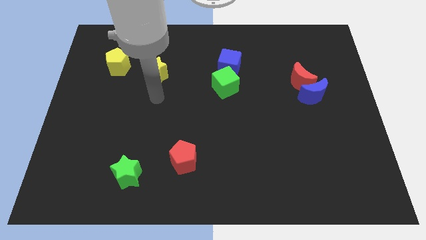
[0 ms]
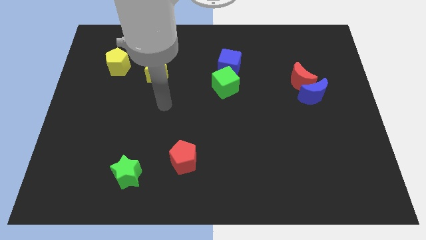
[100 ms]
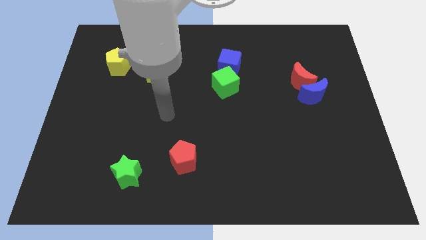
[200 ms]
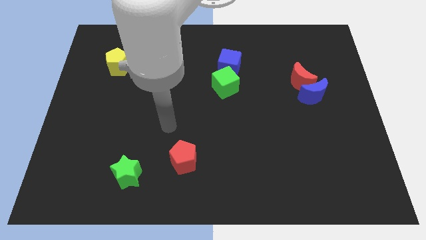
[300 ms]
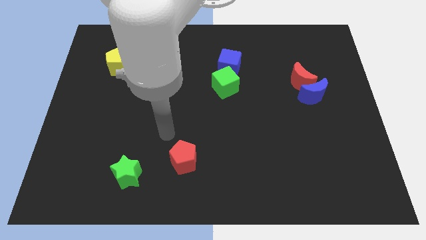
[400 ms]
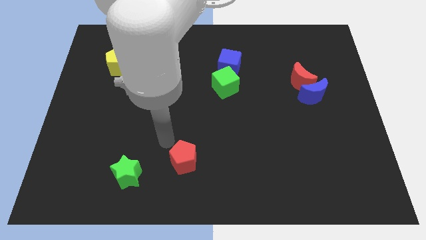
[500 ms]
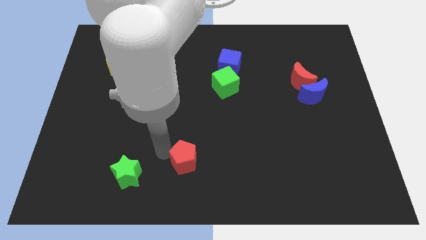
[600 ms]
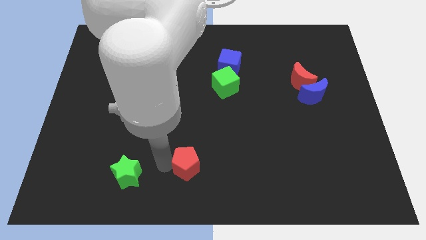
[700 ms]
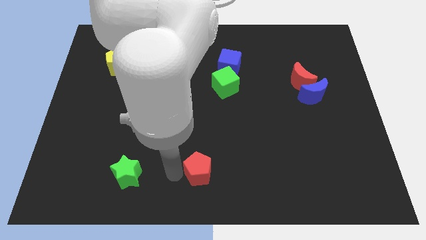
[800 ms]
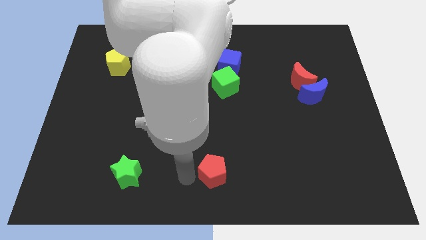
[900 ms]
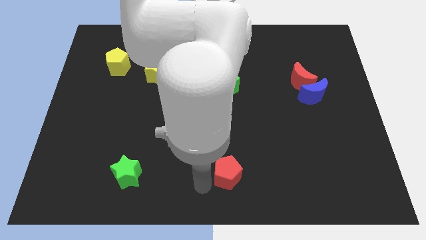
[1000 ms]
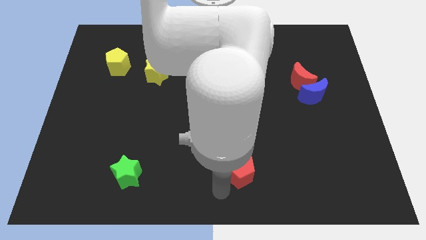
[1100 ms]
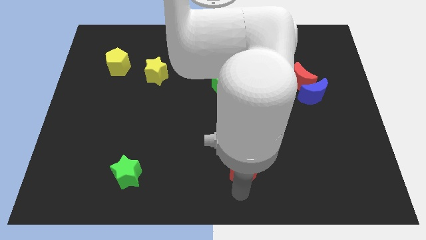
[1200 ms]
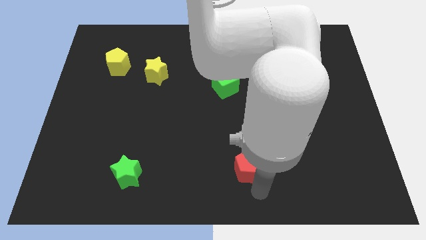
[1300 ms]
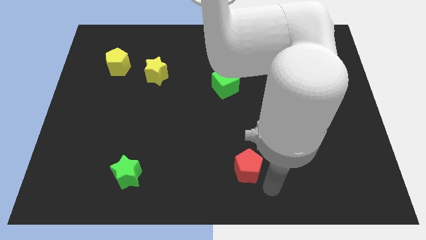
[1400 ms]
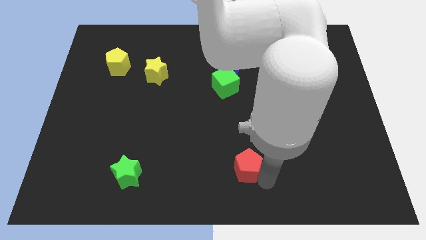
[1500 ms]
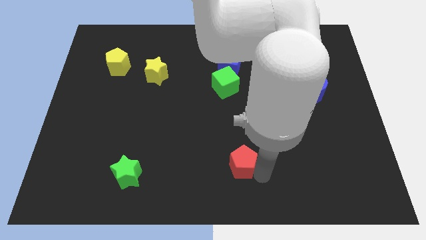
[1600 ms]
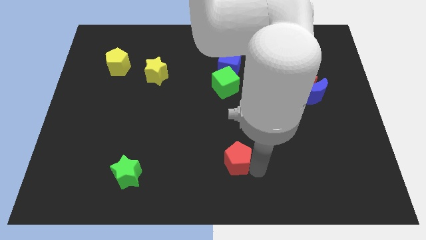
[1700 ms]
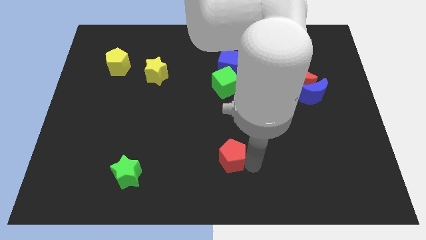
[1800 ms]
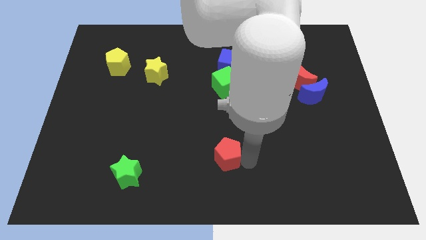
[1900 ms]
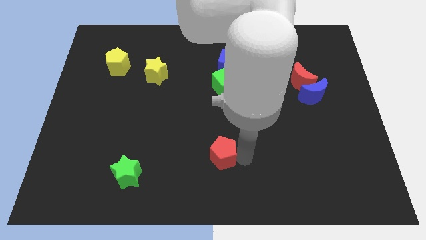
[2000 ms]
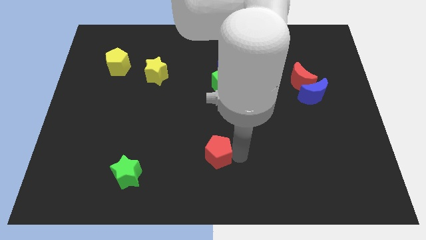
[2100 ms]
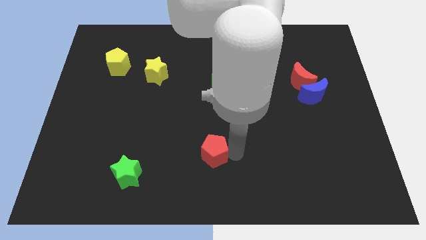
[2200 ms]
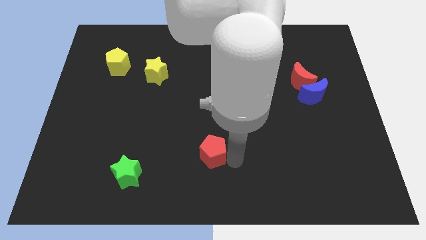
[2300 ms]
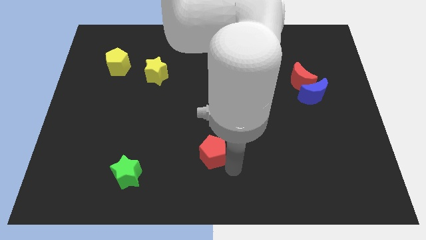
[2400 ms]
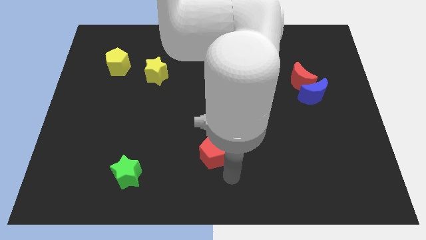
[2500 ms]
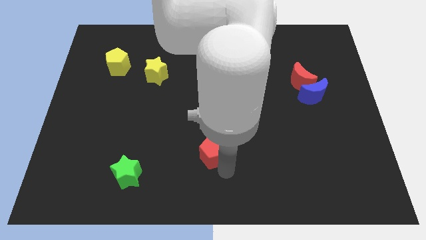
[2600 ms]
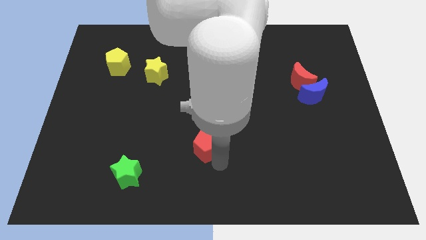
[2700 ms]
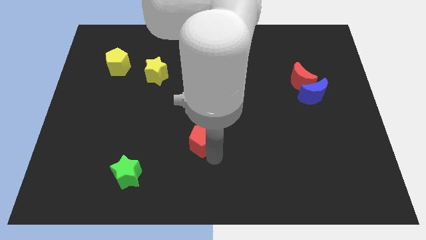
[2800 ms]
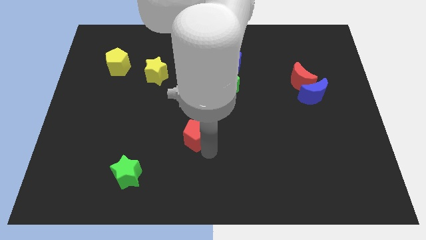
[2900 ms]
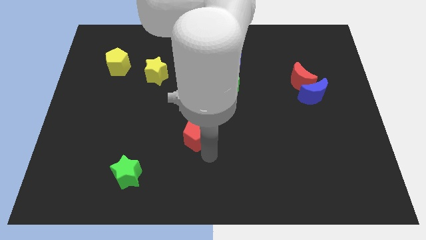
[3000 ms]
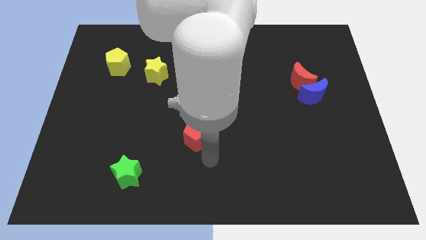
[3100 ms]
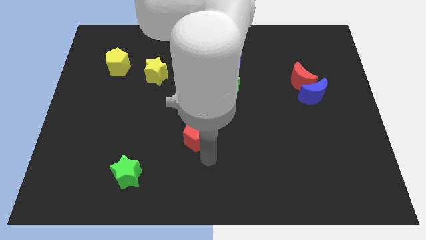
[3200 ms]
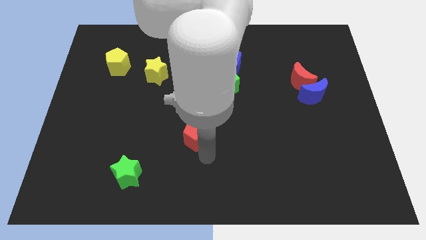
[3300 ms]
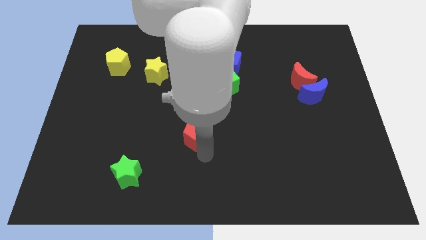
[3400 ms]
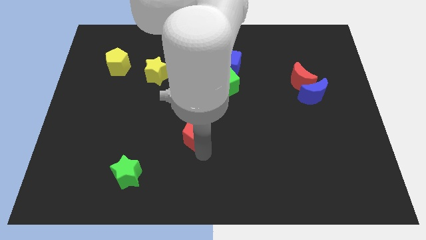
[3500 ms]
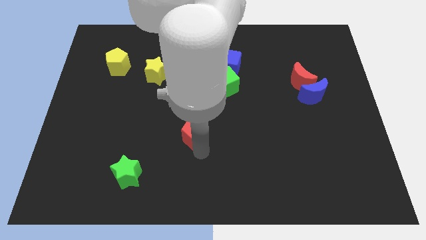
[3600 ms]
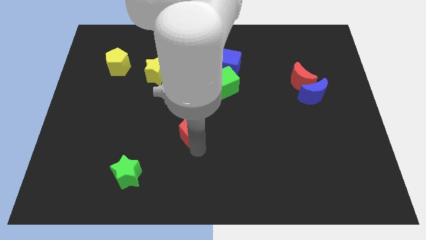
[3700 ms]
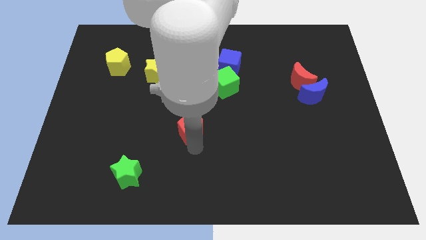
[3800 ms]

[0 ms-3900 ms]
slide the red pentagon a little bit up

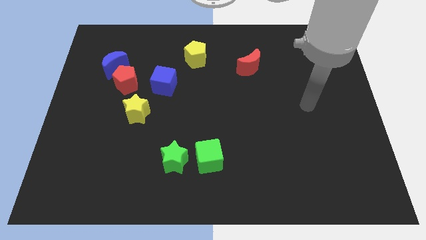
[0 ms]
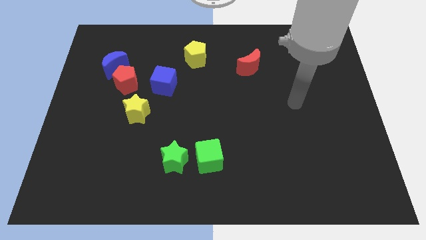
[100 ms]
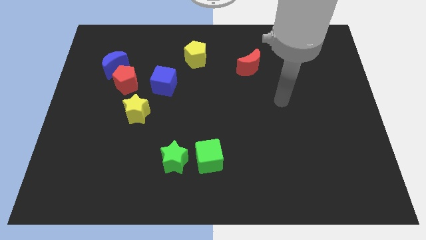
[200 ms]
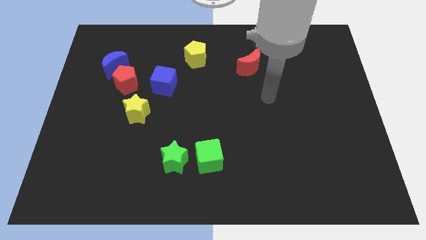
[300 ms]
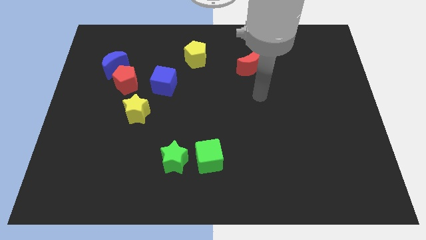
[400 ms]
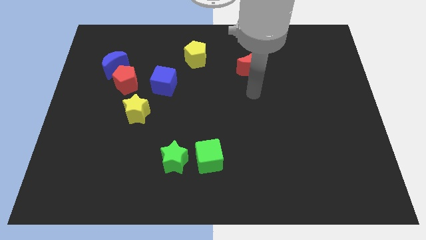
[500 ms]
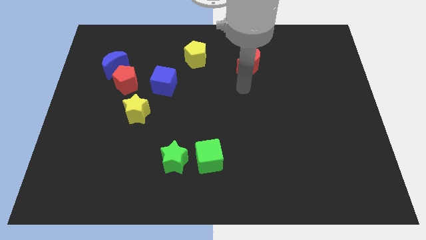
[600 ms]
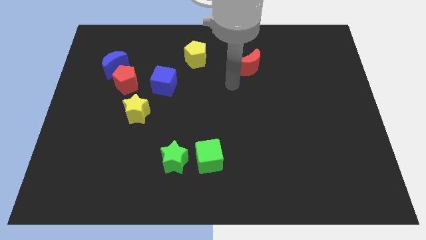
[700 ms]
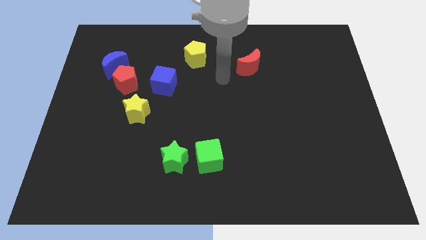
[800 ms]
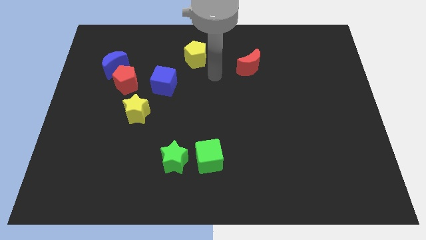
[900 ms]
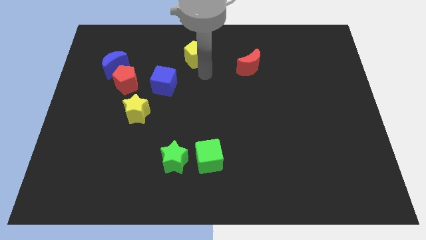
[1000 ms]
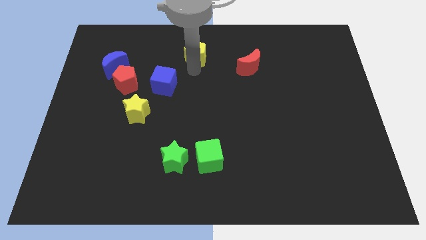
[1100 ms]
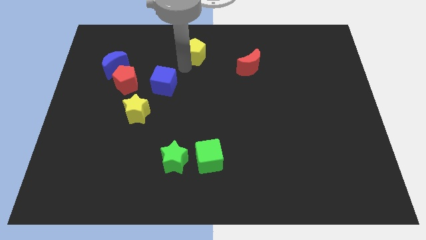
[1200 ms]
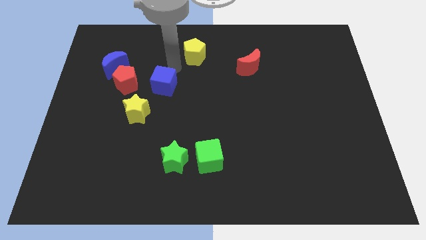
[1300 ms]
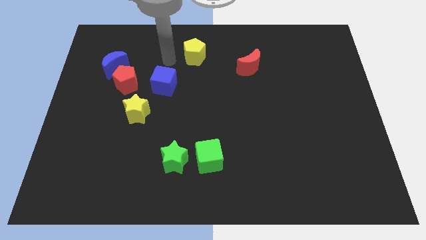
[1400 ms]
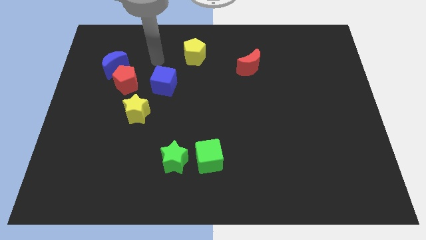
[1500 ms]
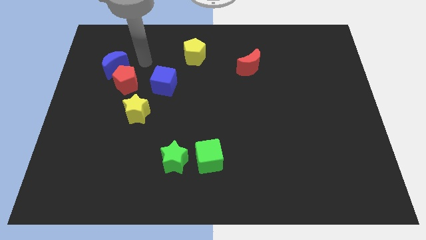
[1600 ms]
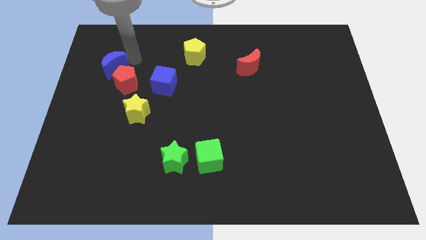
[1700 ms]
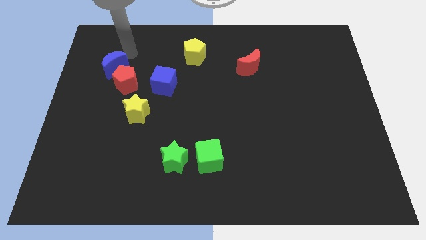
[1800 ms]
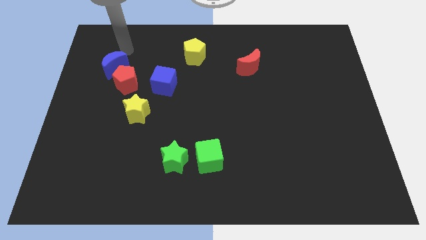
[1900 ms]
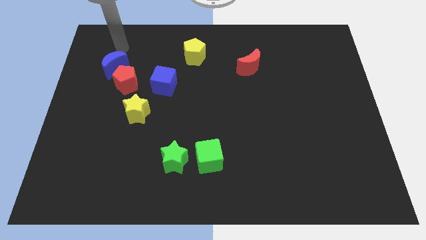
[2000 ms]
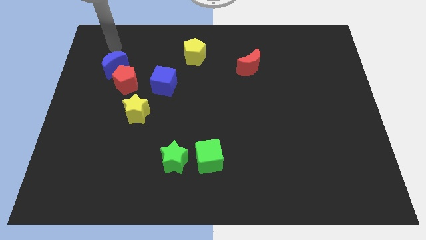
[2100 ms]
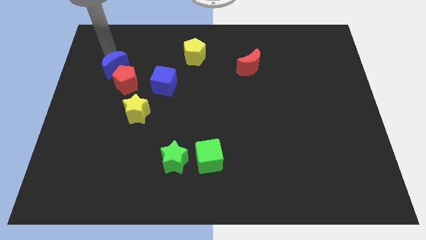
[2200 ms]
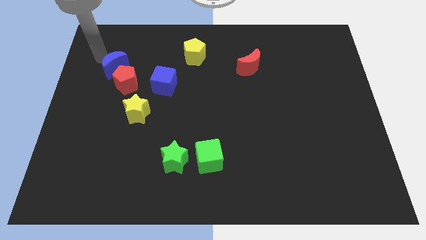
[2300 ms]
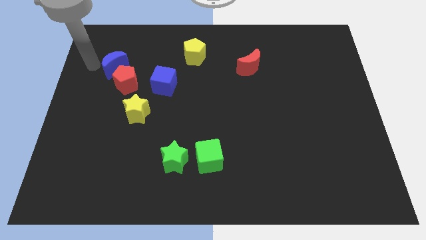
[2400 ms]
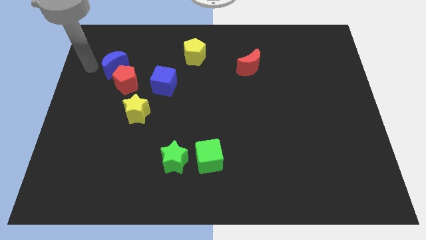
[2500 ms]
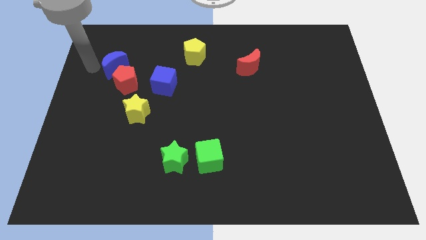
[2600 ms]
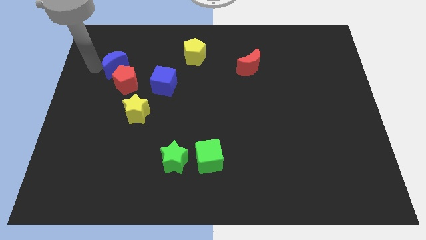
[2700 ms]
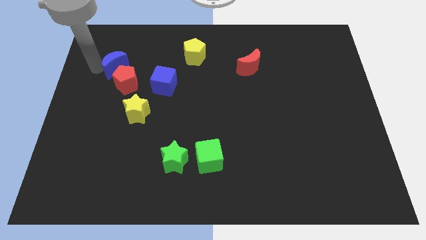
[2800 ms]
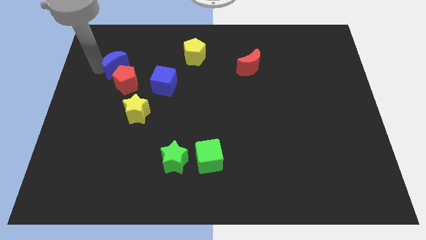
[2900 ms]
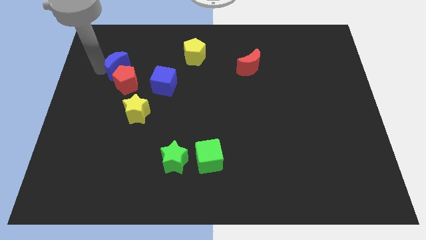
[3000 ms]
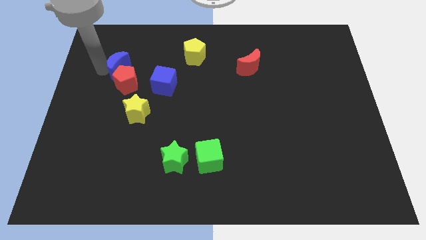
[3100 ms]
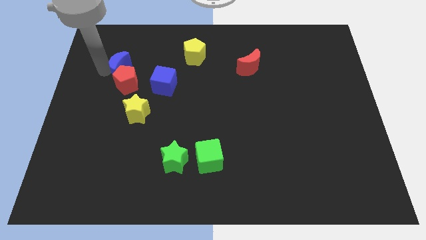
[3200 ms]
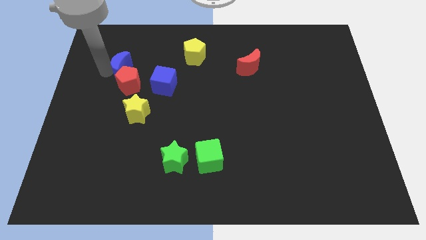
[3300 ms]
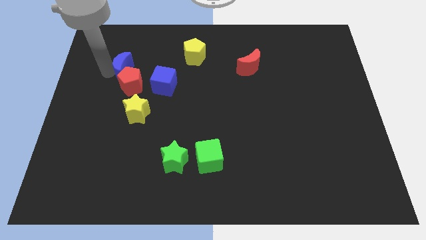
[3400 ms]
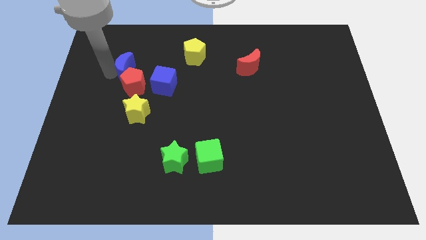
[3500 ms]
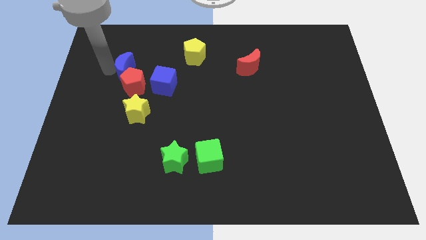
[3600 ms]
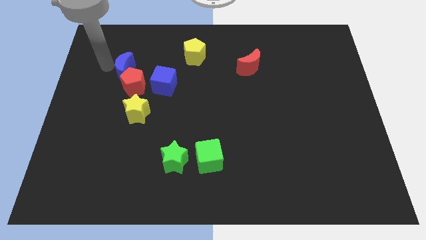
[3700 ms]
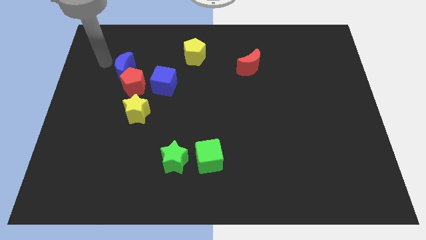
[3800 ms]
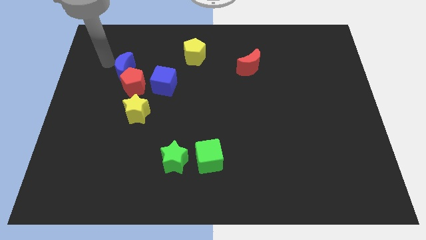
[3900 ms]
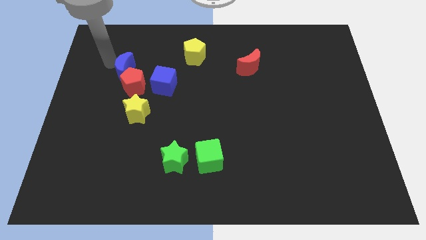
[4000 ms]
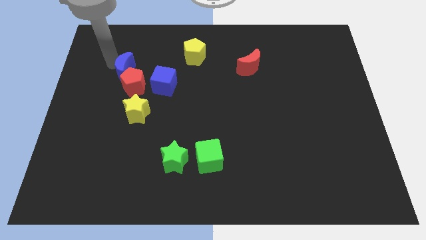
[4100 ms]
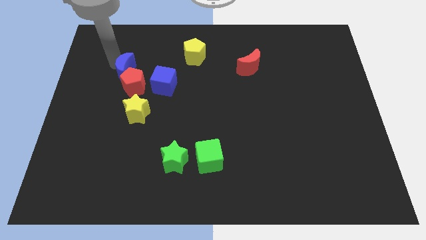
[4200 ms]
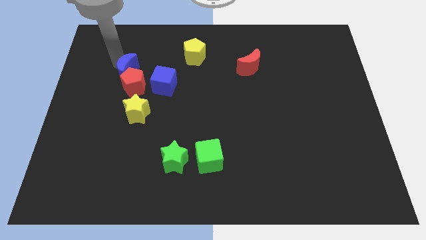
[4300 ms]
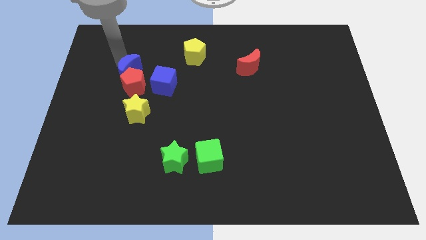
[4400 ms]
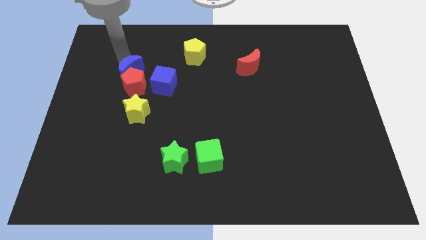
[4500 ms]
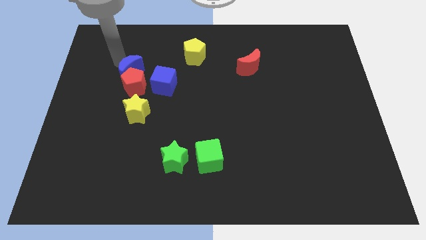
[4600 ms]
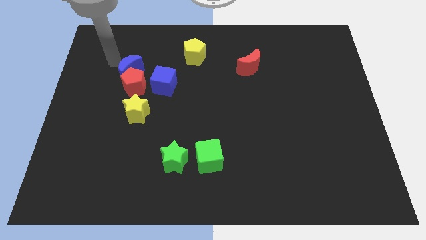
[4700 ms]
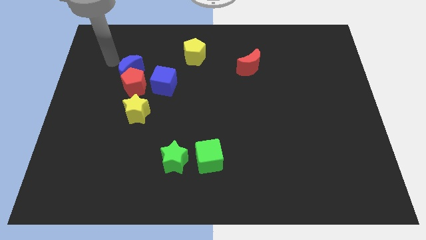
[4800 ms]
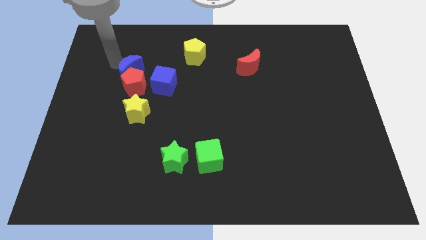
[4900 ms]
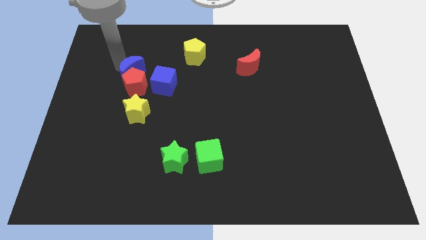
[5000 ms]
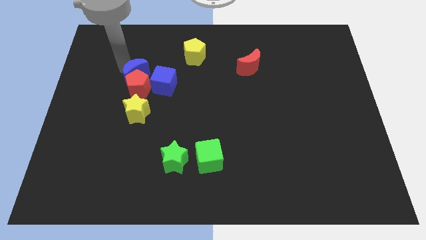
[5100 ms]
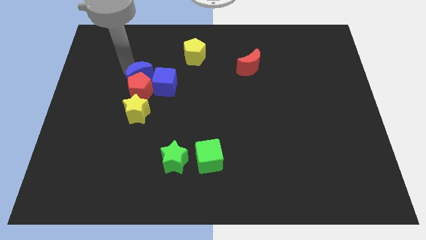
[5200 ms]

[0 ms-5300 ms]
move the blue moon downwards and then to the right somewhat
